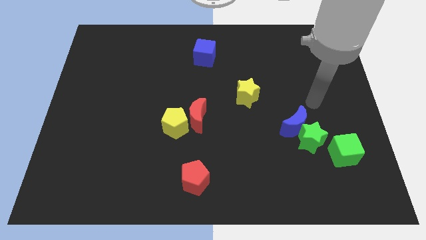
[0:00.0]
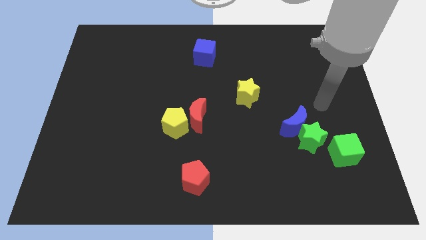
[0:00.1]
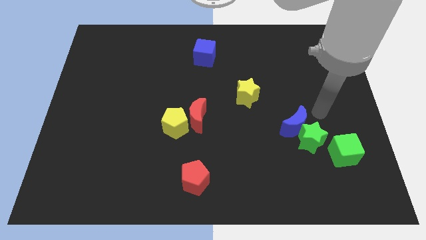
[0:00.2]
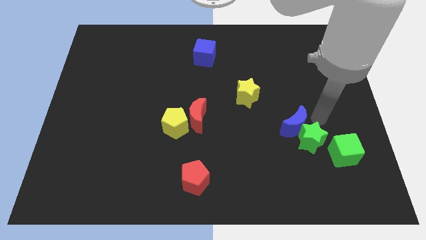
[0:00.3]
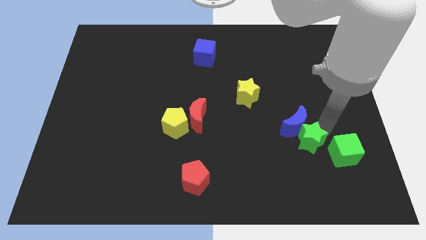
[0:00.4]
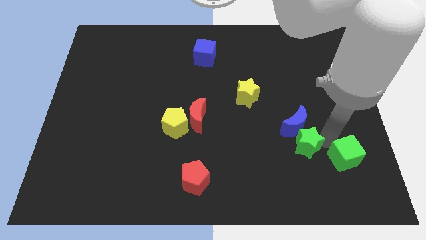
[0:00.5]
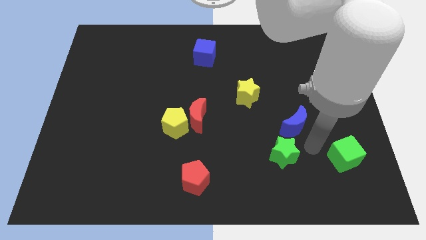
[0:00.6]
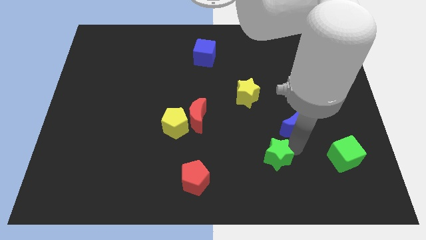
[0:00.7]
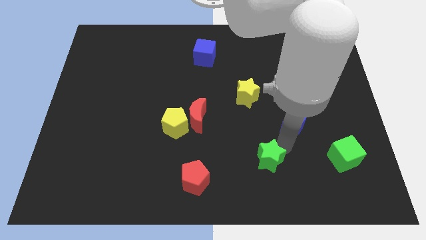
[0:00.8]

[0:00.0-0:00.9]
pull the blue moon apart from the green star

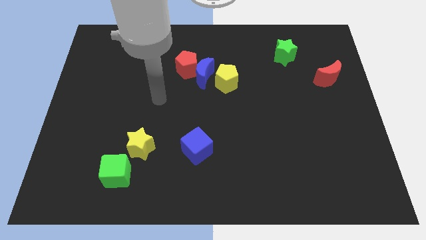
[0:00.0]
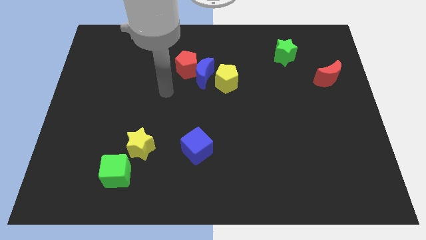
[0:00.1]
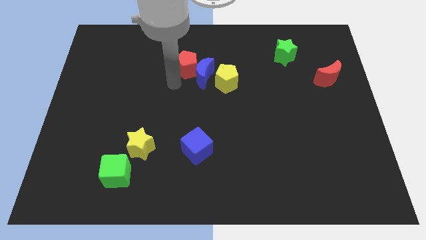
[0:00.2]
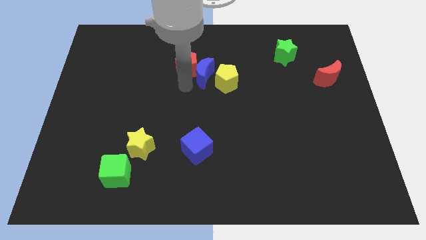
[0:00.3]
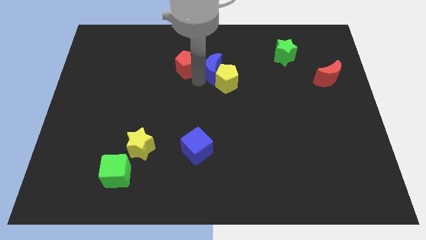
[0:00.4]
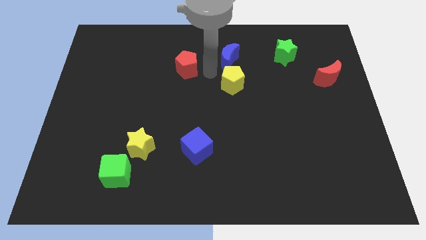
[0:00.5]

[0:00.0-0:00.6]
move the red pentagon away from the blue moon

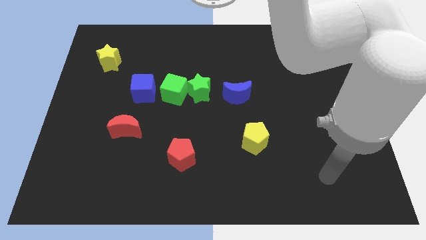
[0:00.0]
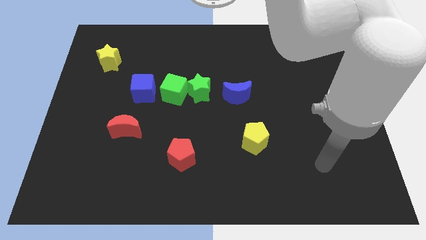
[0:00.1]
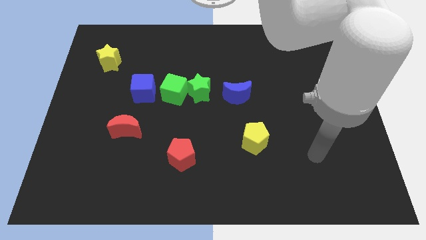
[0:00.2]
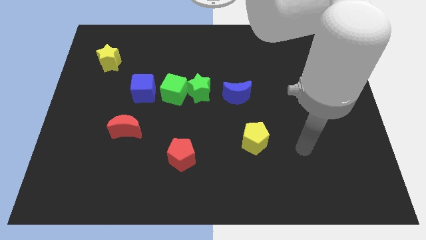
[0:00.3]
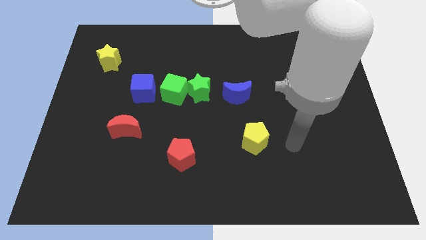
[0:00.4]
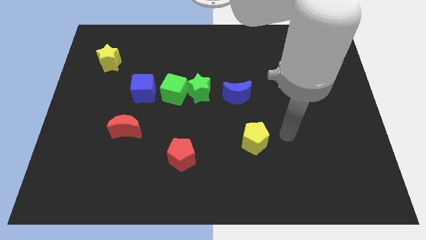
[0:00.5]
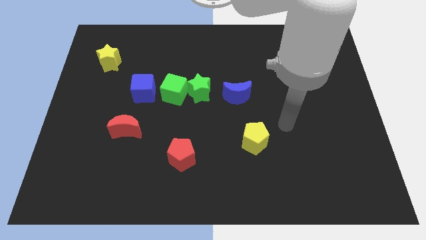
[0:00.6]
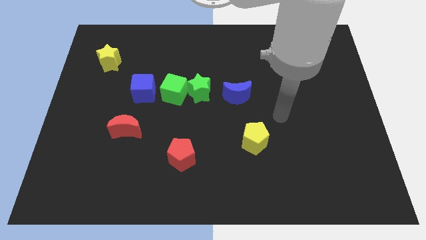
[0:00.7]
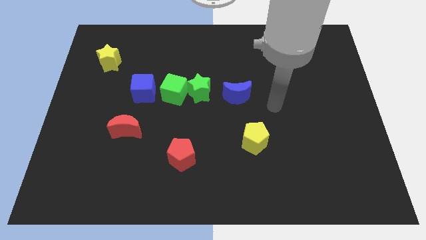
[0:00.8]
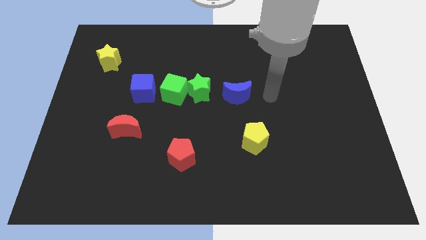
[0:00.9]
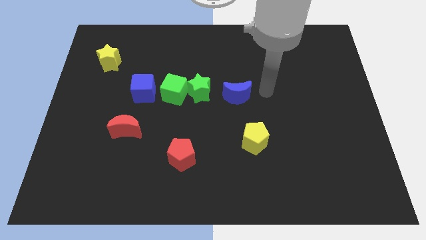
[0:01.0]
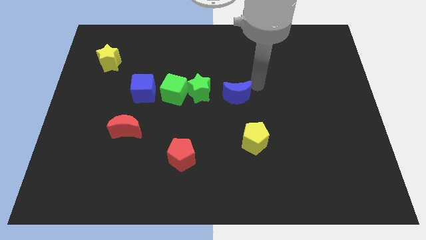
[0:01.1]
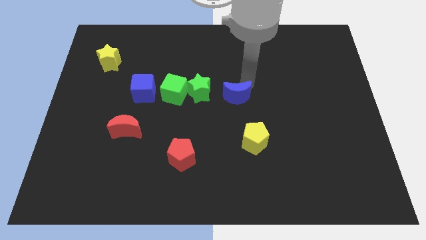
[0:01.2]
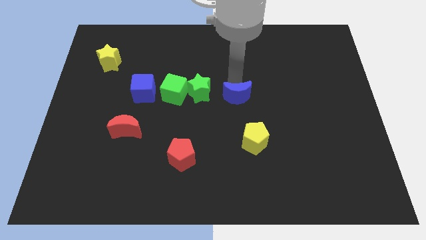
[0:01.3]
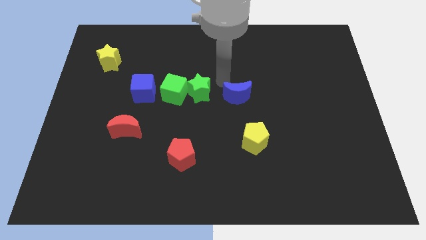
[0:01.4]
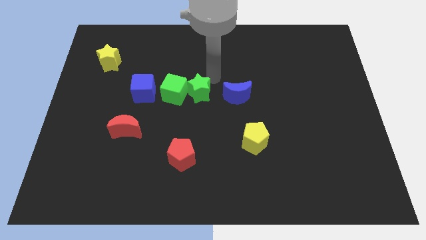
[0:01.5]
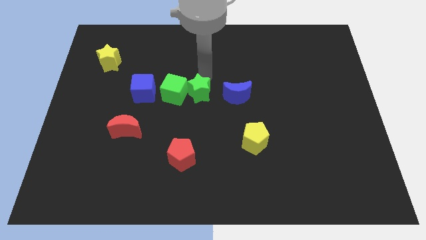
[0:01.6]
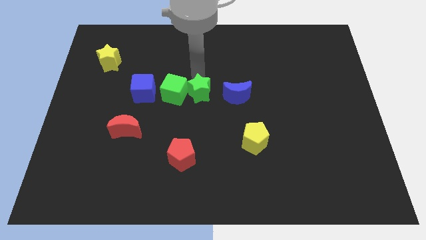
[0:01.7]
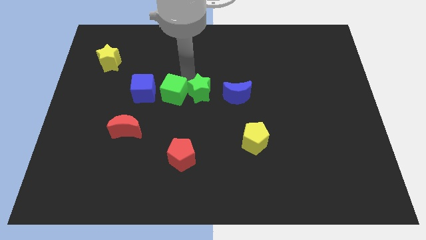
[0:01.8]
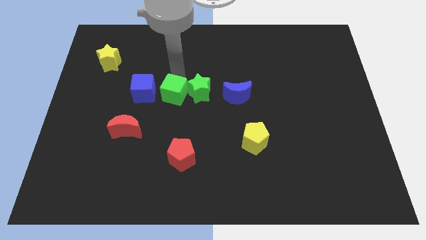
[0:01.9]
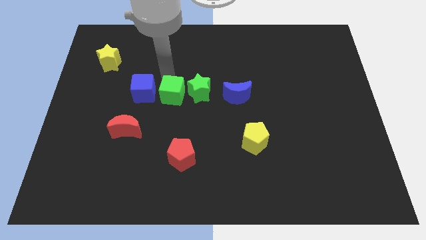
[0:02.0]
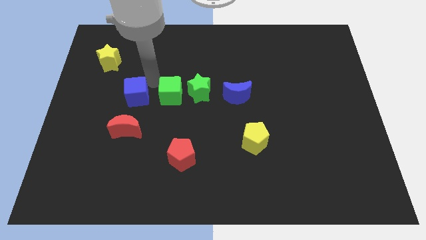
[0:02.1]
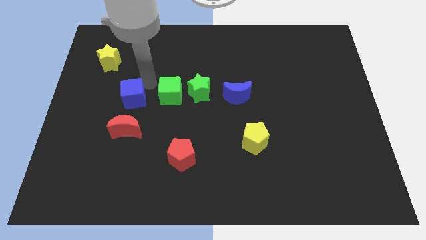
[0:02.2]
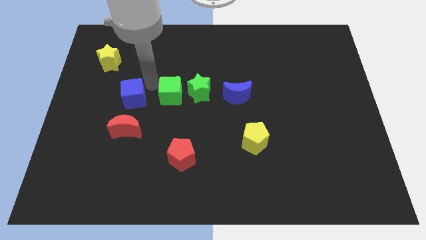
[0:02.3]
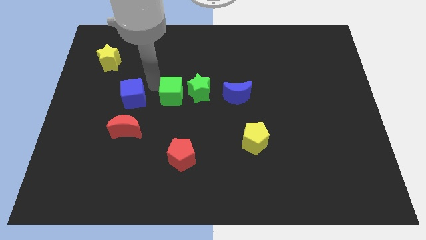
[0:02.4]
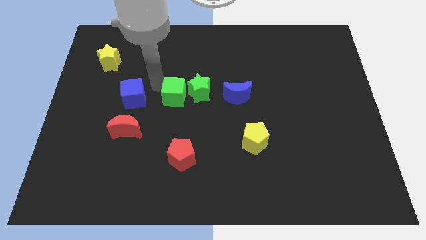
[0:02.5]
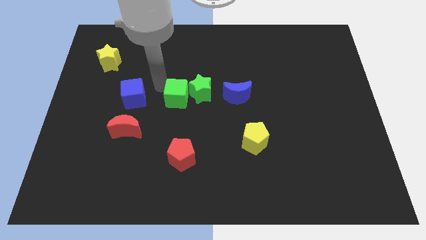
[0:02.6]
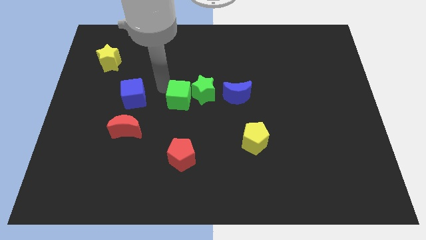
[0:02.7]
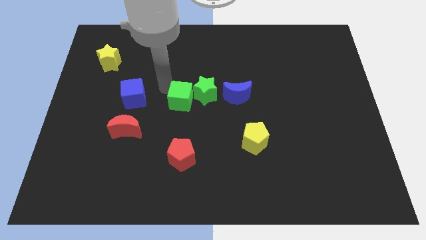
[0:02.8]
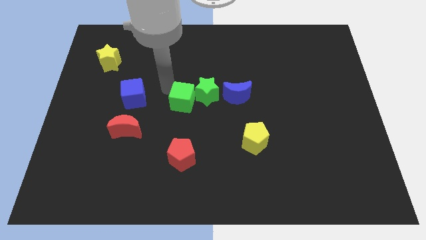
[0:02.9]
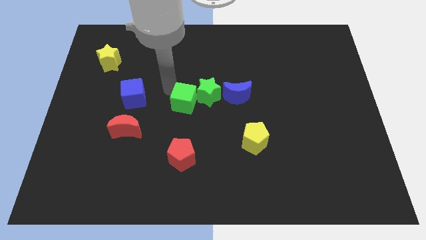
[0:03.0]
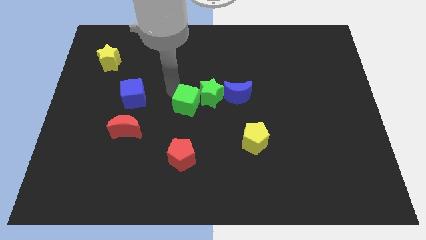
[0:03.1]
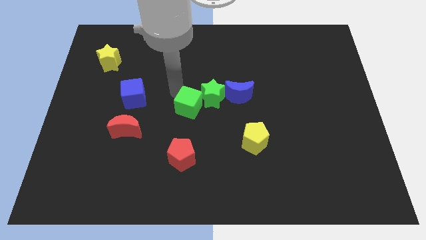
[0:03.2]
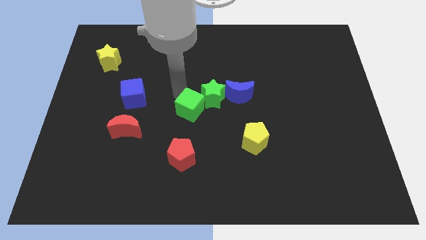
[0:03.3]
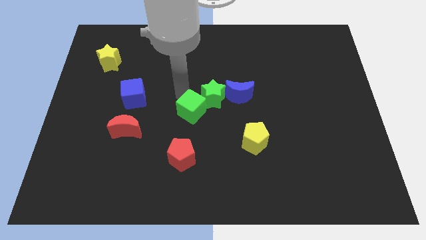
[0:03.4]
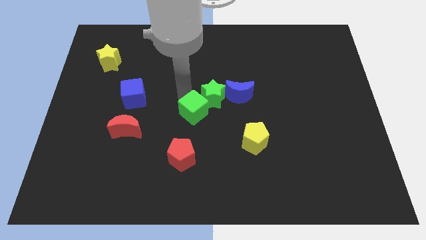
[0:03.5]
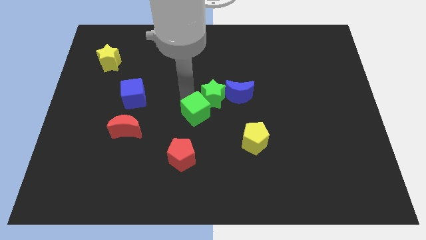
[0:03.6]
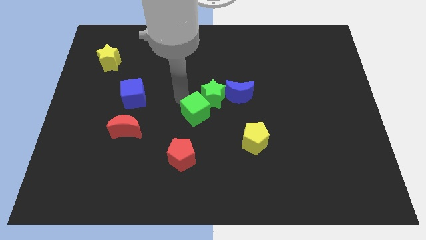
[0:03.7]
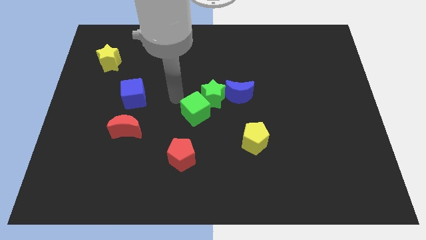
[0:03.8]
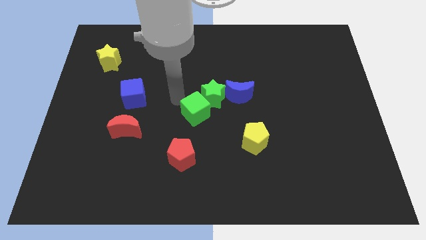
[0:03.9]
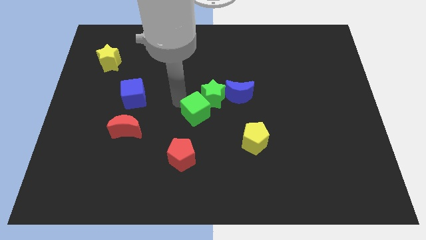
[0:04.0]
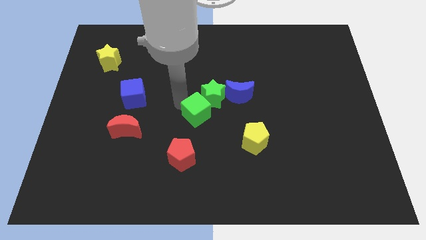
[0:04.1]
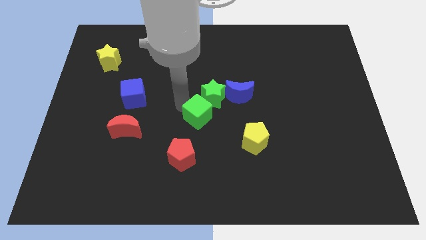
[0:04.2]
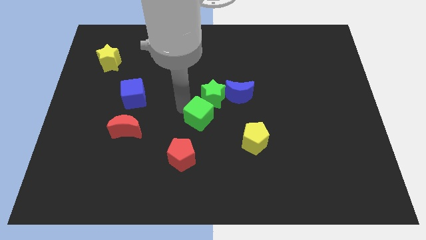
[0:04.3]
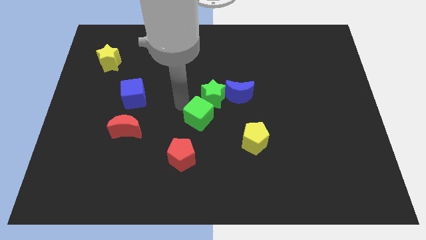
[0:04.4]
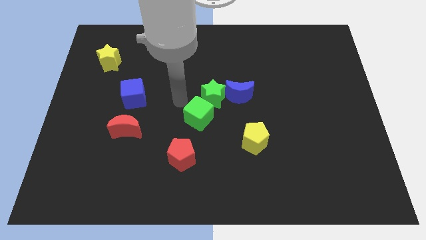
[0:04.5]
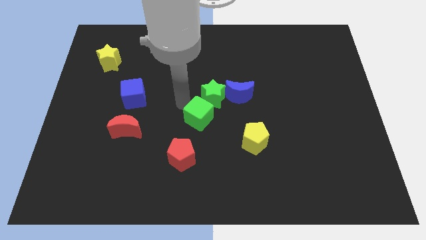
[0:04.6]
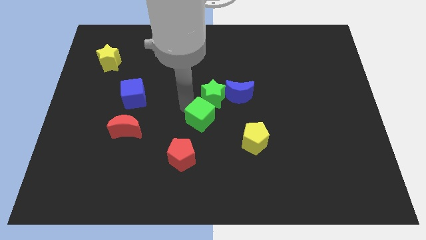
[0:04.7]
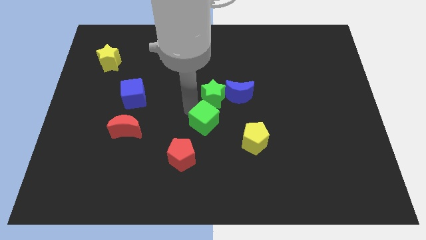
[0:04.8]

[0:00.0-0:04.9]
move the green cube away from the green star and blue cube

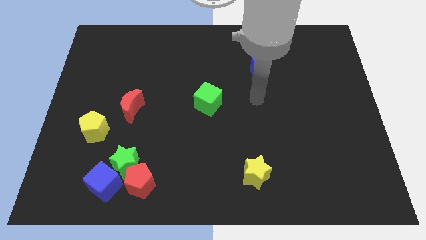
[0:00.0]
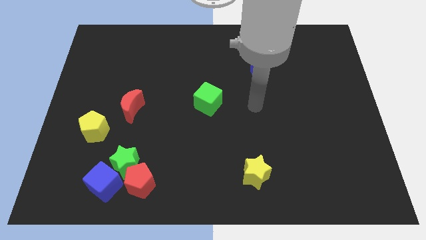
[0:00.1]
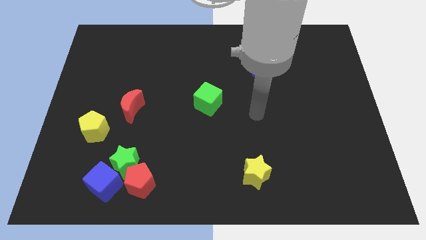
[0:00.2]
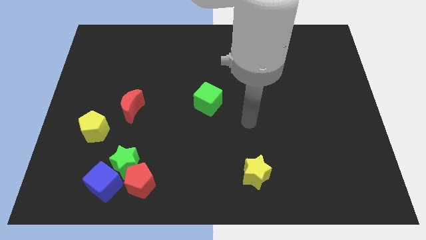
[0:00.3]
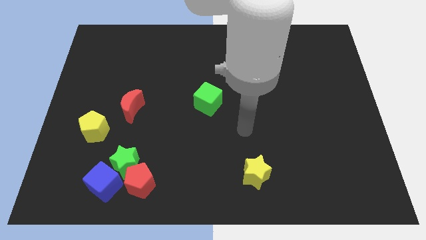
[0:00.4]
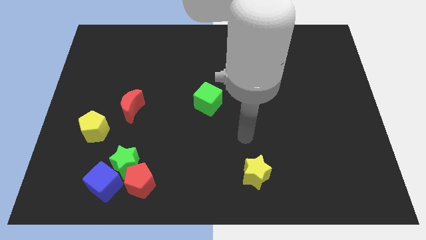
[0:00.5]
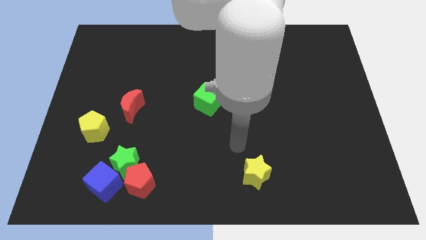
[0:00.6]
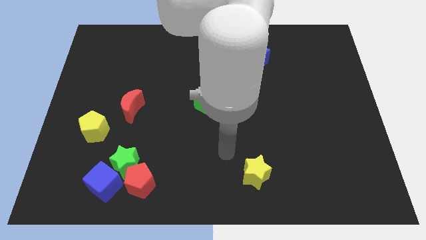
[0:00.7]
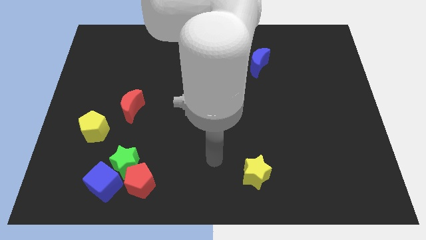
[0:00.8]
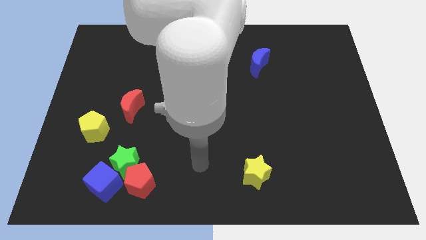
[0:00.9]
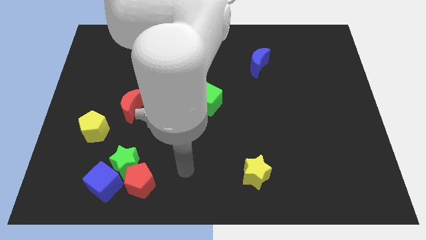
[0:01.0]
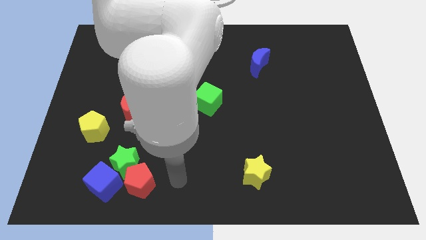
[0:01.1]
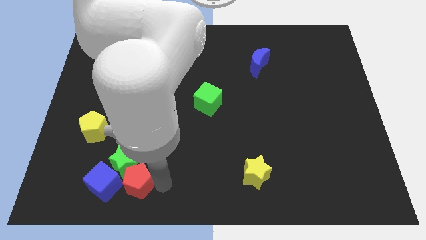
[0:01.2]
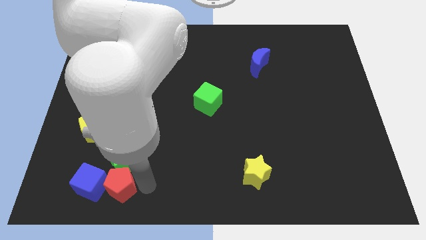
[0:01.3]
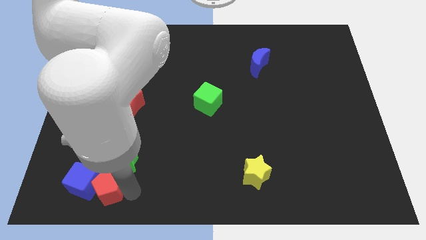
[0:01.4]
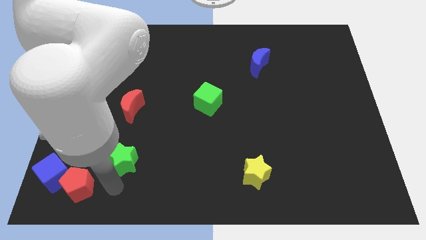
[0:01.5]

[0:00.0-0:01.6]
separate the green star from the red pentagon and blue cube

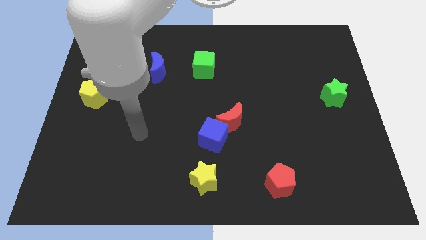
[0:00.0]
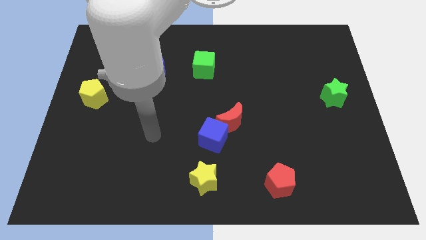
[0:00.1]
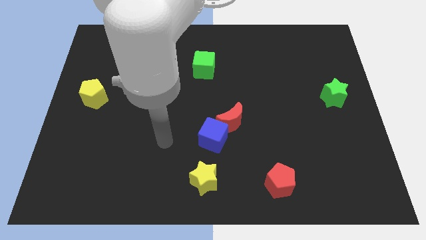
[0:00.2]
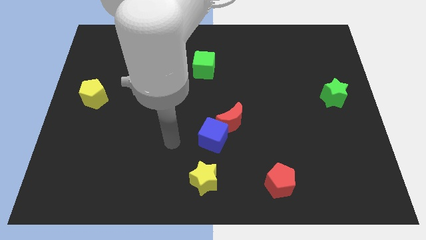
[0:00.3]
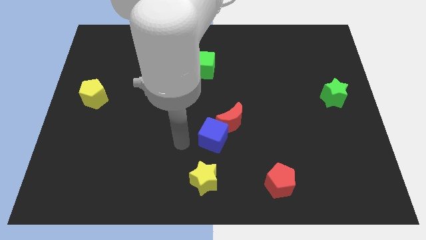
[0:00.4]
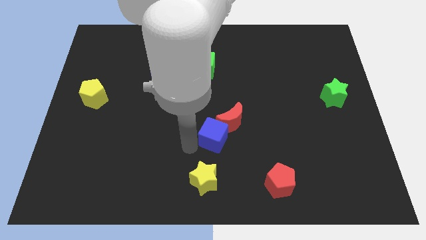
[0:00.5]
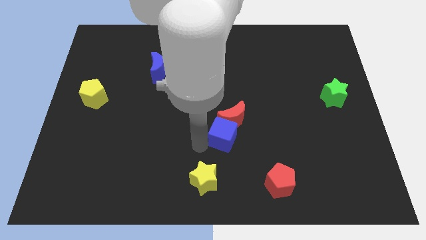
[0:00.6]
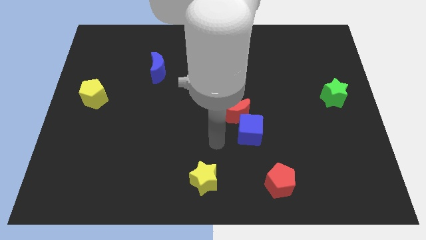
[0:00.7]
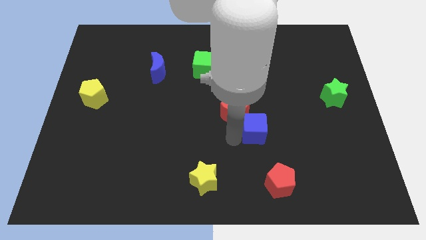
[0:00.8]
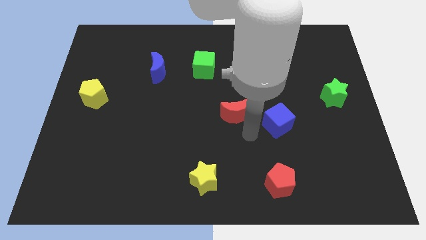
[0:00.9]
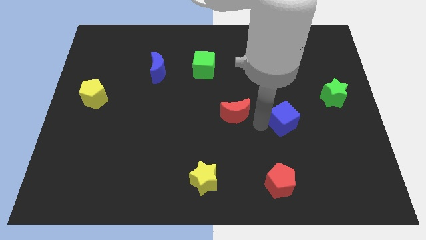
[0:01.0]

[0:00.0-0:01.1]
move the red moon away from the blue cube

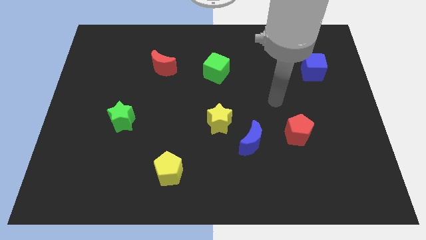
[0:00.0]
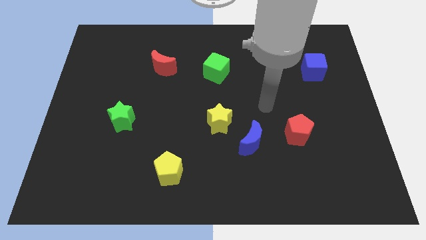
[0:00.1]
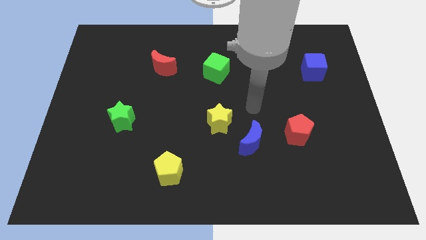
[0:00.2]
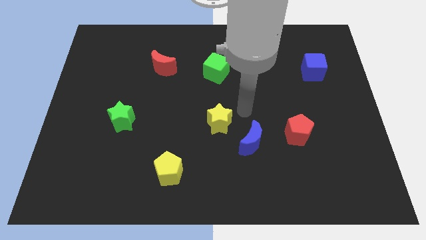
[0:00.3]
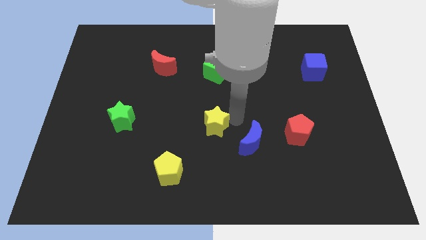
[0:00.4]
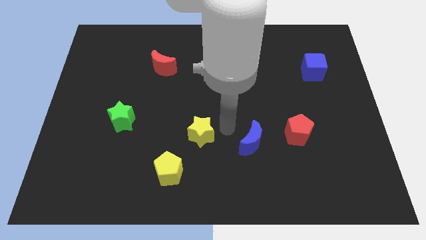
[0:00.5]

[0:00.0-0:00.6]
pull the blue moon apart from the yellow star
